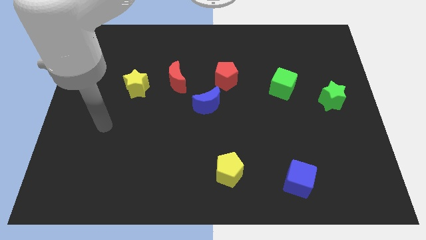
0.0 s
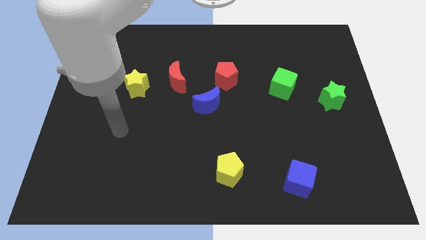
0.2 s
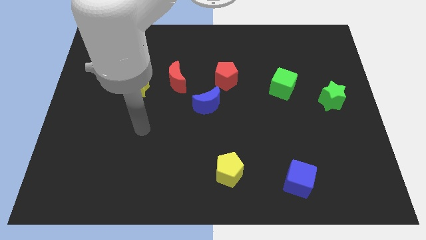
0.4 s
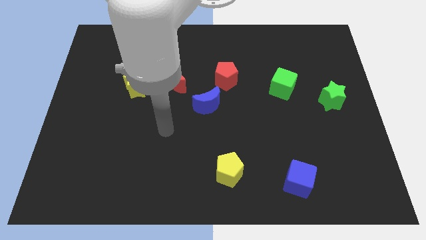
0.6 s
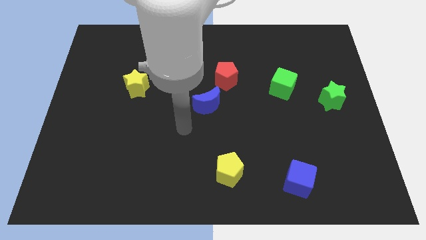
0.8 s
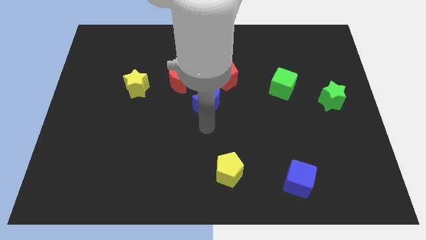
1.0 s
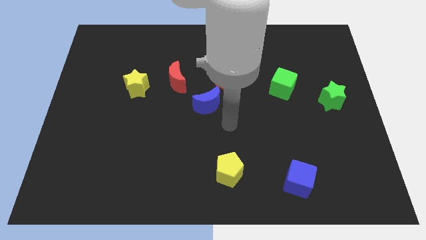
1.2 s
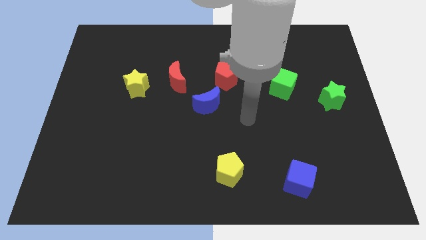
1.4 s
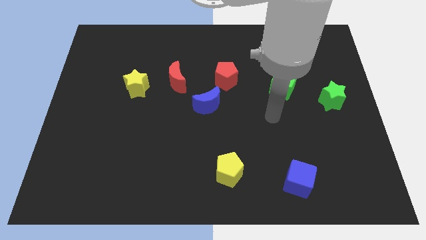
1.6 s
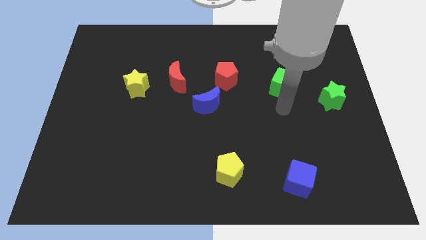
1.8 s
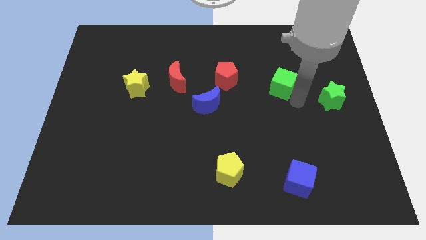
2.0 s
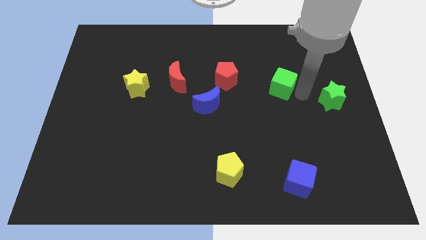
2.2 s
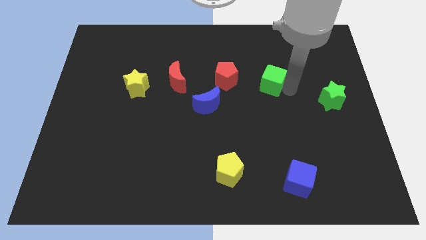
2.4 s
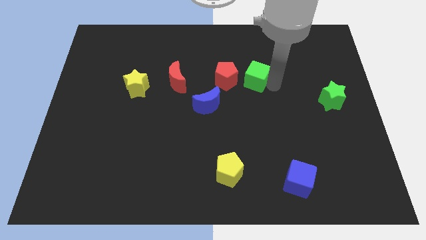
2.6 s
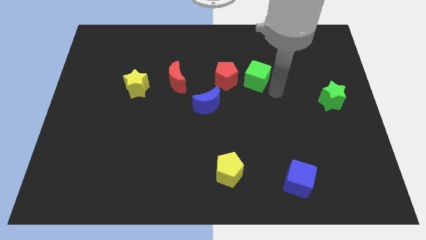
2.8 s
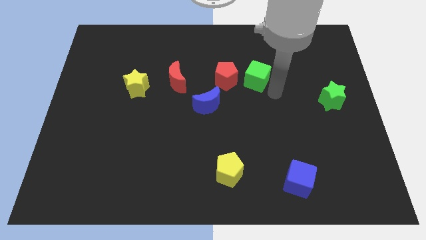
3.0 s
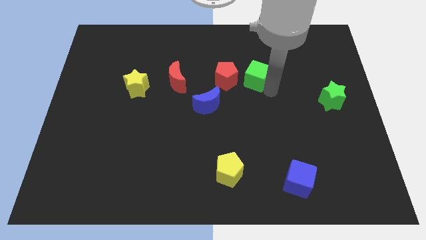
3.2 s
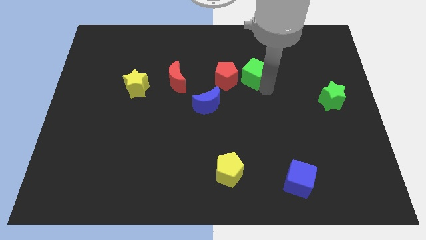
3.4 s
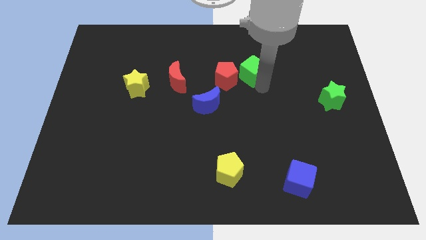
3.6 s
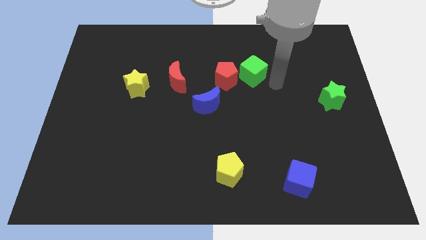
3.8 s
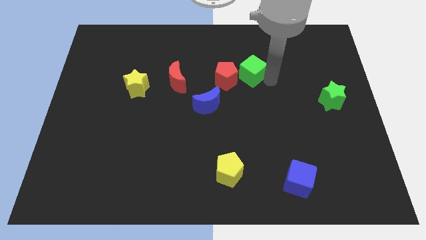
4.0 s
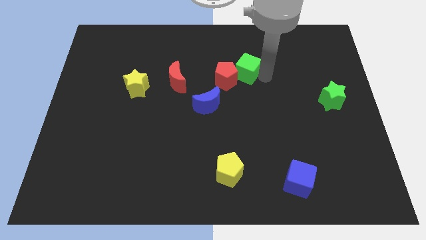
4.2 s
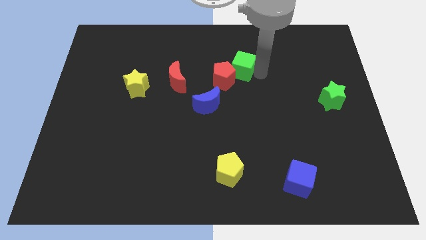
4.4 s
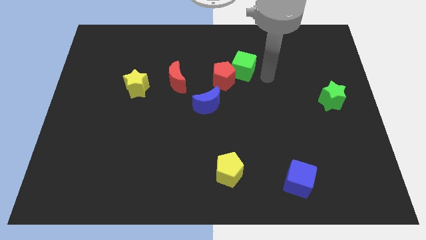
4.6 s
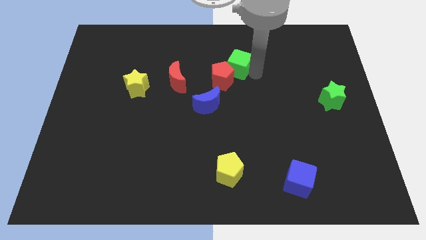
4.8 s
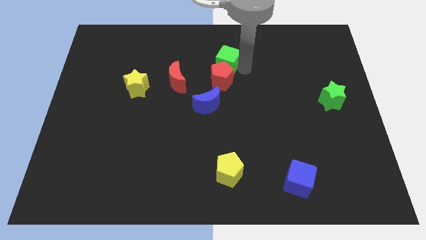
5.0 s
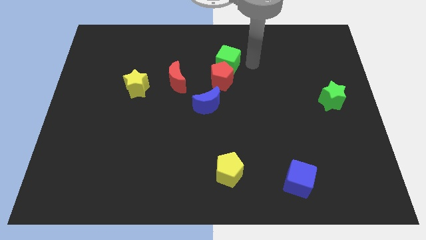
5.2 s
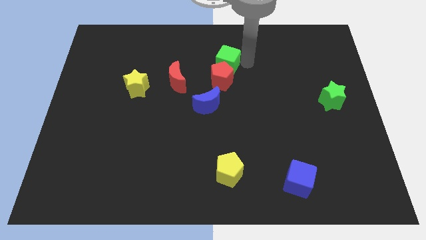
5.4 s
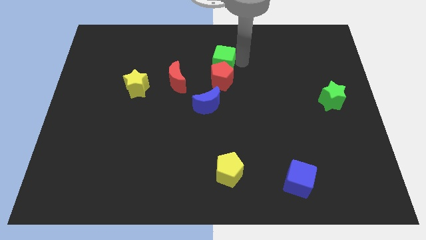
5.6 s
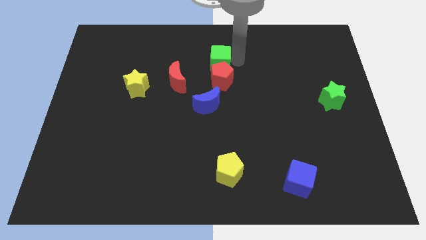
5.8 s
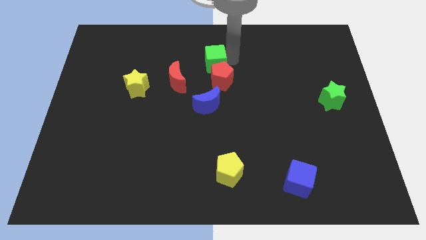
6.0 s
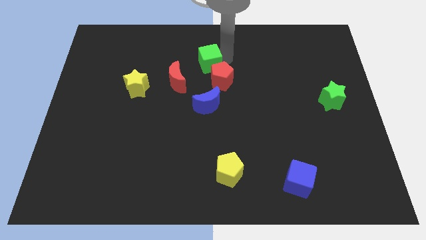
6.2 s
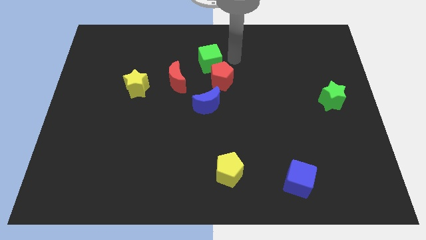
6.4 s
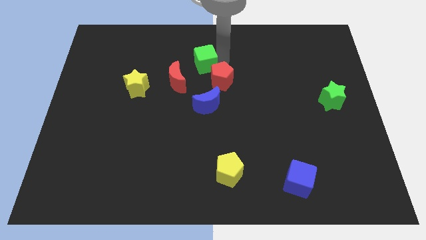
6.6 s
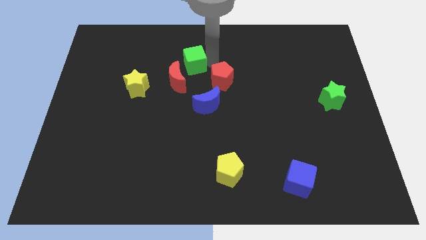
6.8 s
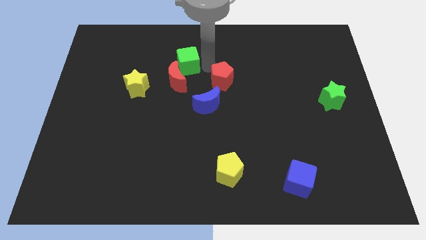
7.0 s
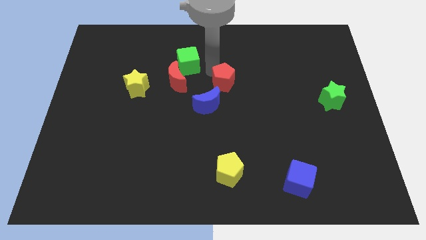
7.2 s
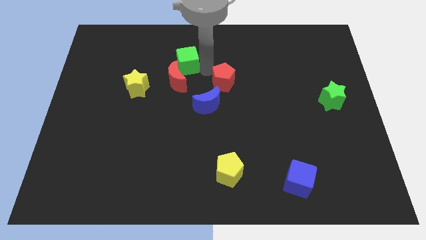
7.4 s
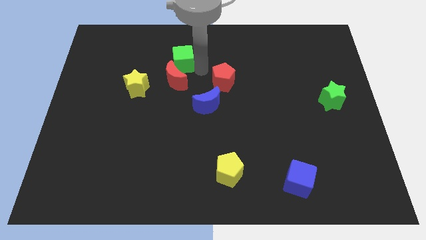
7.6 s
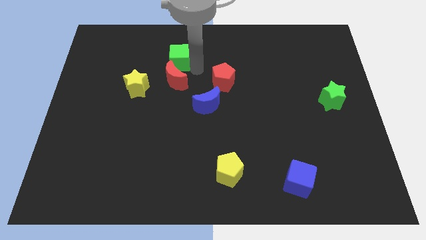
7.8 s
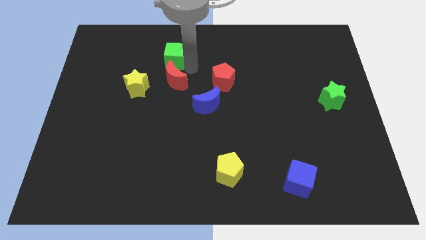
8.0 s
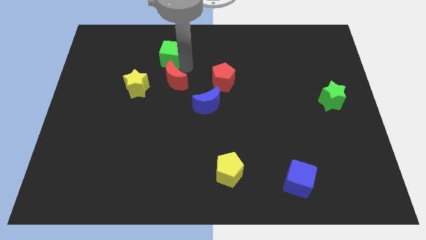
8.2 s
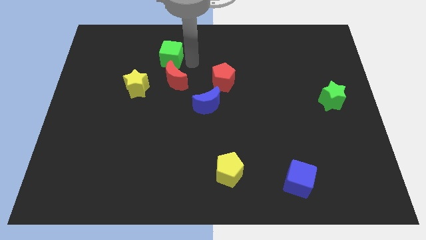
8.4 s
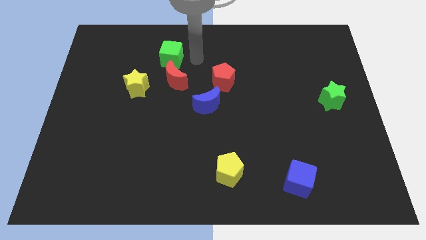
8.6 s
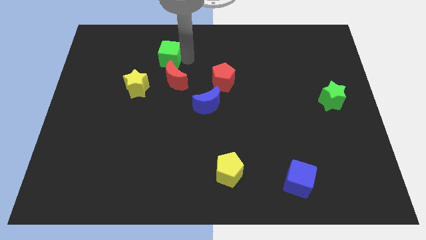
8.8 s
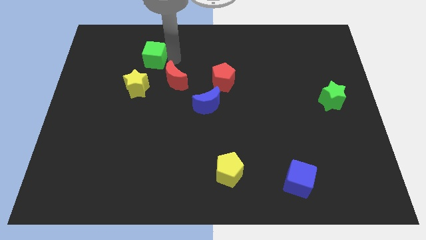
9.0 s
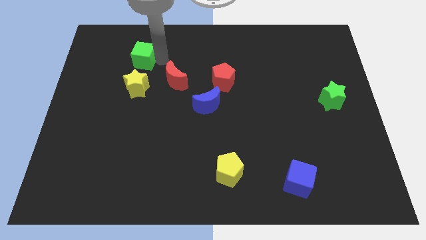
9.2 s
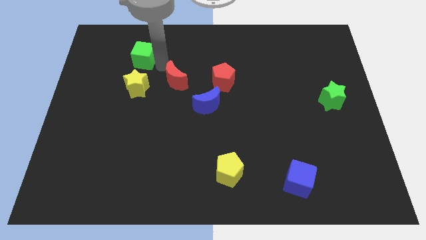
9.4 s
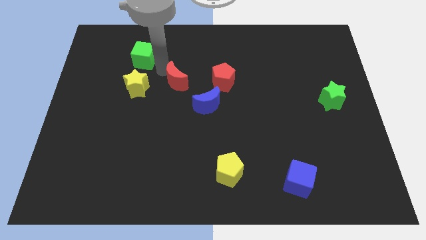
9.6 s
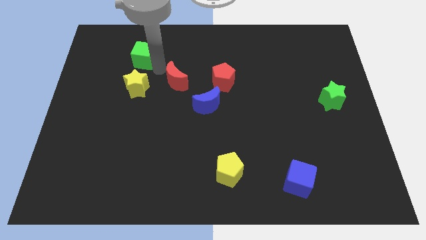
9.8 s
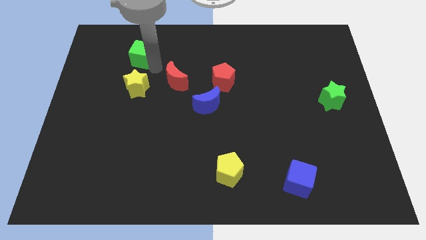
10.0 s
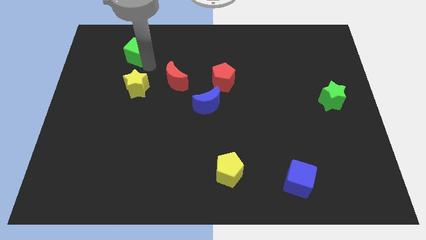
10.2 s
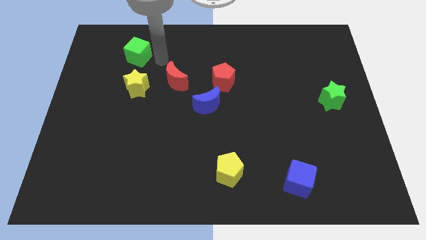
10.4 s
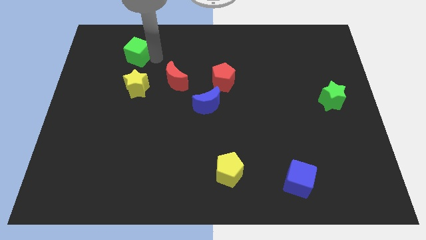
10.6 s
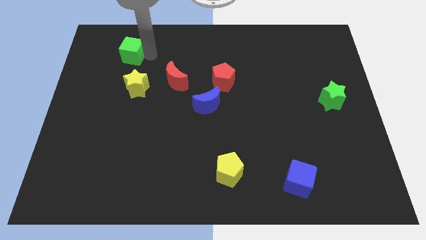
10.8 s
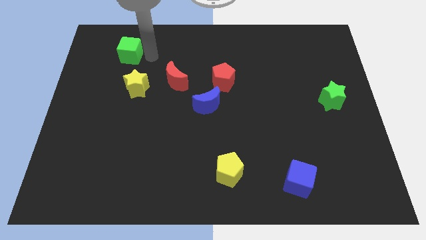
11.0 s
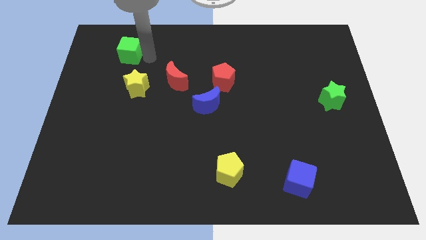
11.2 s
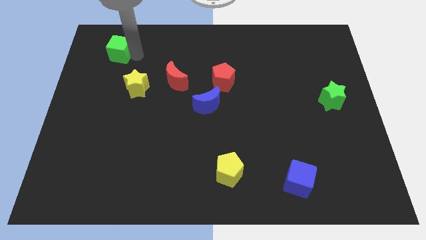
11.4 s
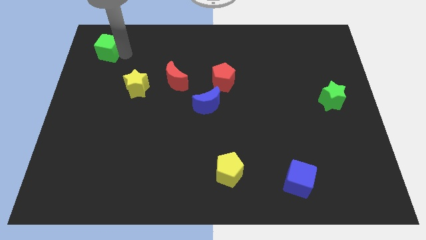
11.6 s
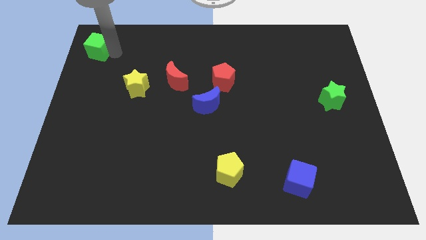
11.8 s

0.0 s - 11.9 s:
slide the green cube to the top left of the board

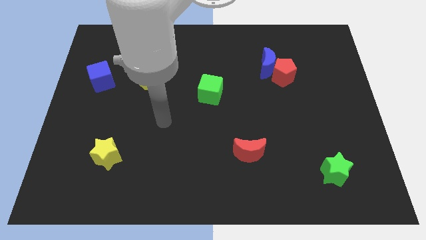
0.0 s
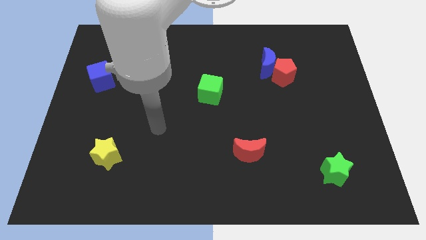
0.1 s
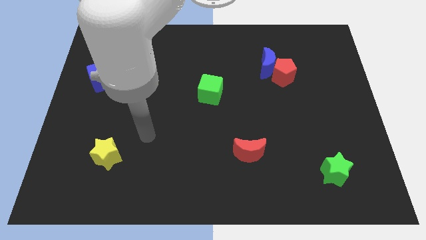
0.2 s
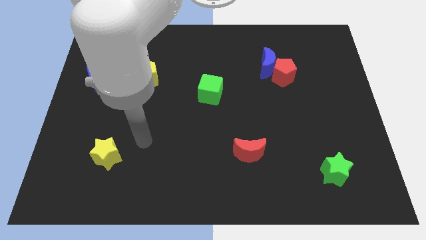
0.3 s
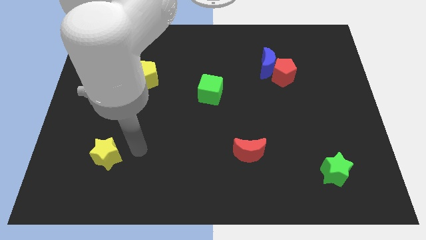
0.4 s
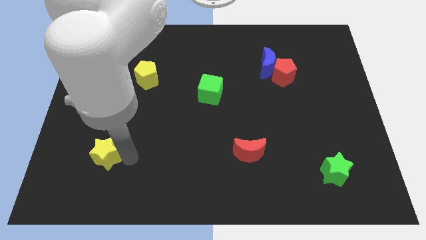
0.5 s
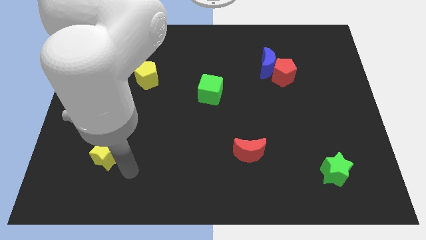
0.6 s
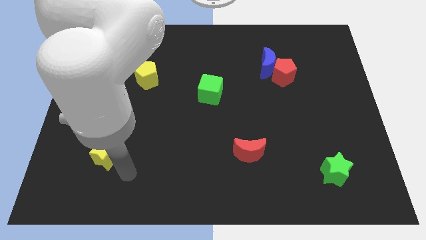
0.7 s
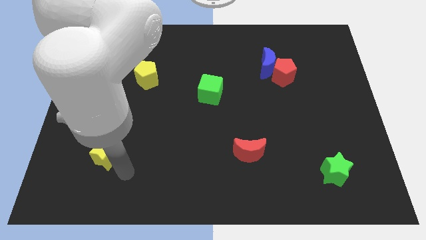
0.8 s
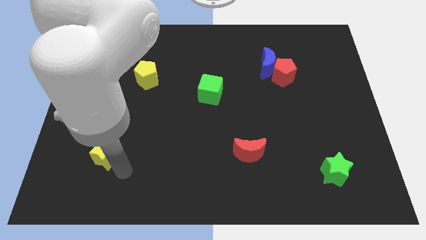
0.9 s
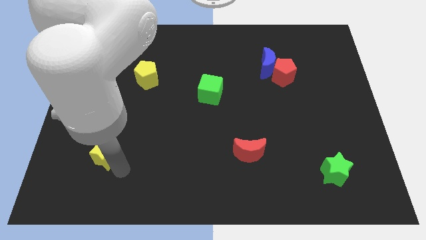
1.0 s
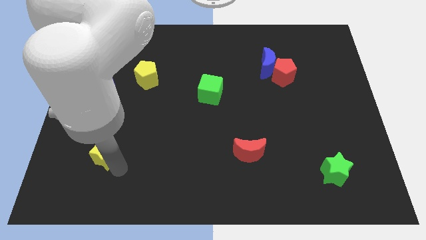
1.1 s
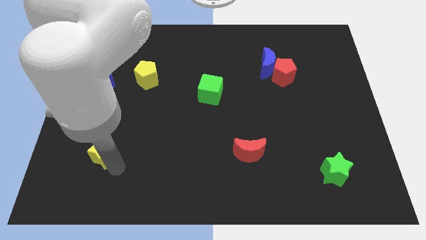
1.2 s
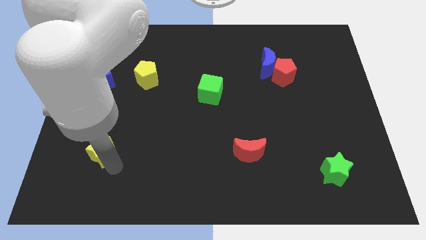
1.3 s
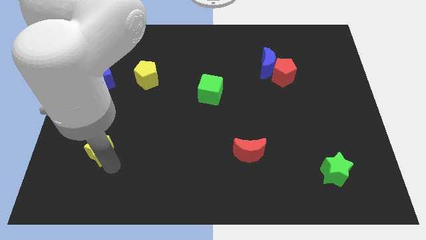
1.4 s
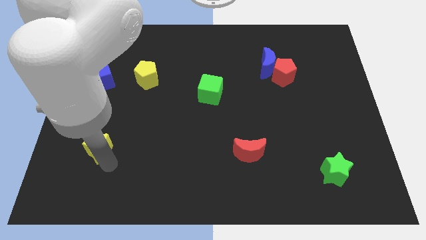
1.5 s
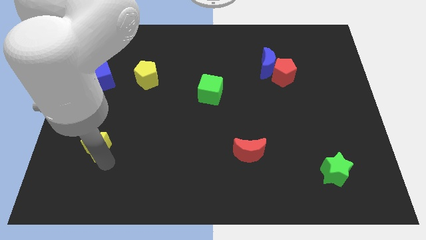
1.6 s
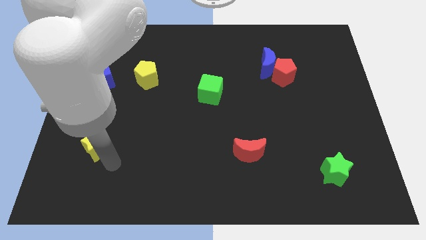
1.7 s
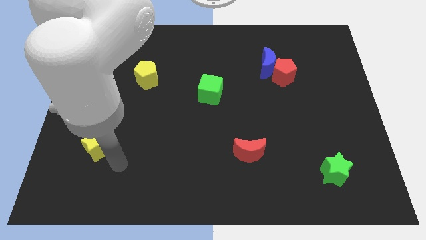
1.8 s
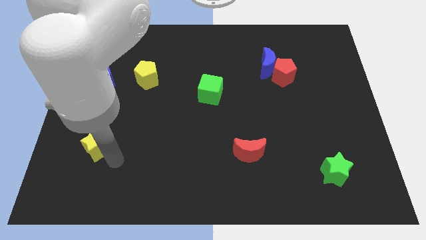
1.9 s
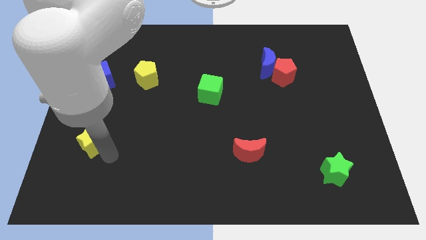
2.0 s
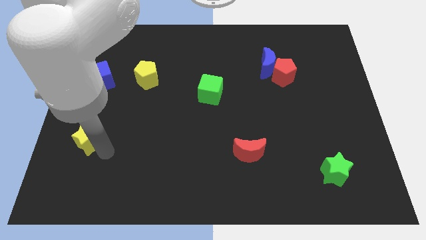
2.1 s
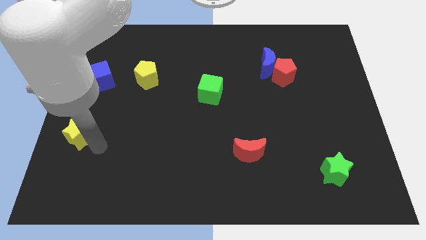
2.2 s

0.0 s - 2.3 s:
put the yellow star to the left side
